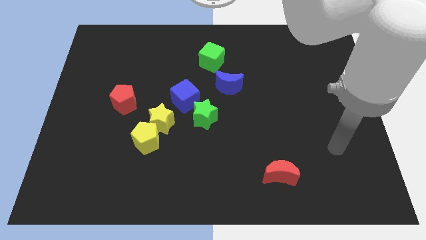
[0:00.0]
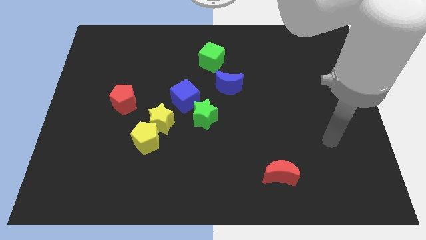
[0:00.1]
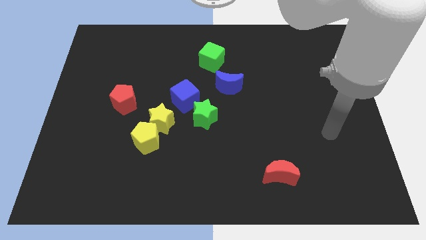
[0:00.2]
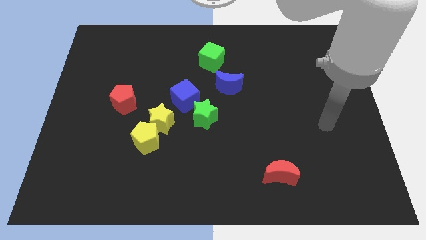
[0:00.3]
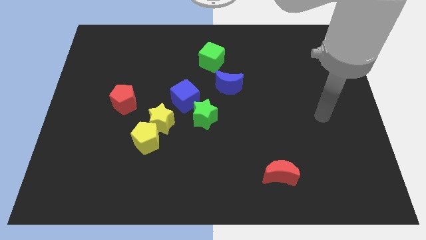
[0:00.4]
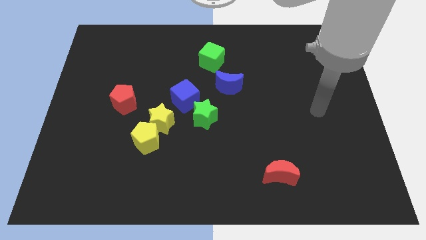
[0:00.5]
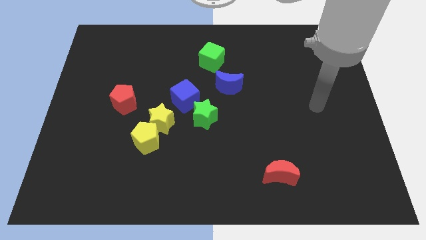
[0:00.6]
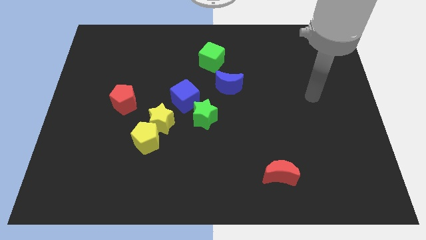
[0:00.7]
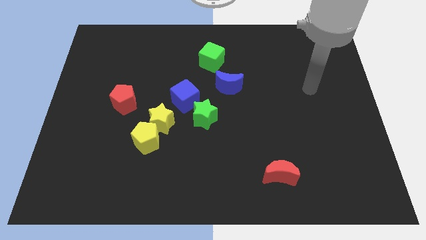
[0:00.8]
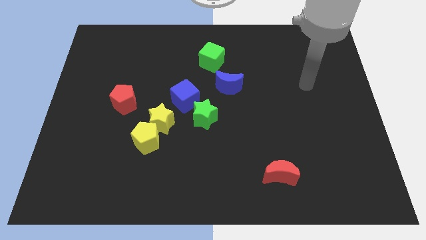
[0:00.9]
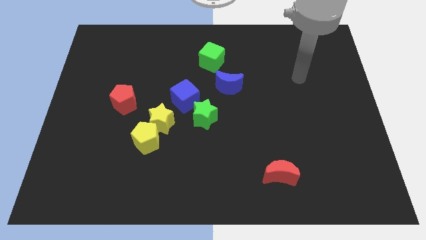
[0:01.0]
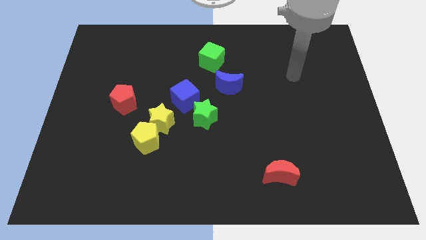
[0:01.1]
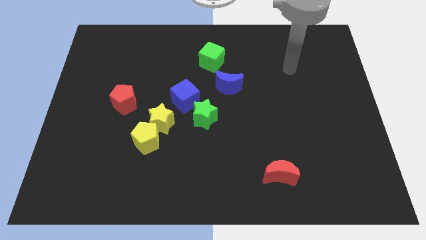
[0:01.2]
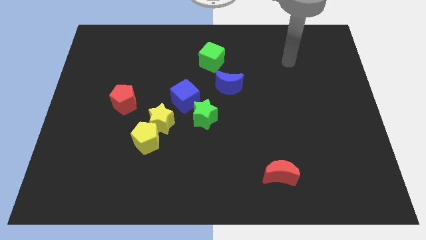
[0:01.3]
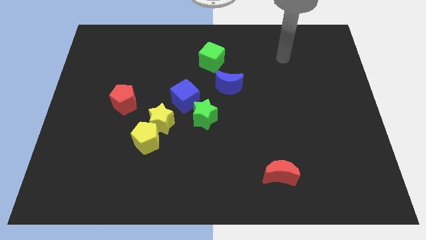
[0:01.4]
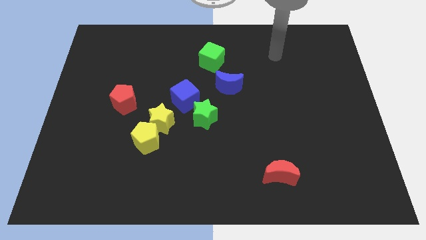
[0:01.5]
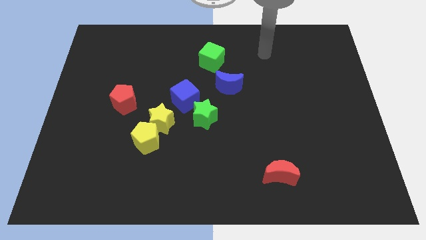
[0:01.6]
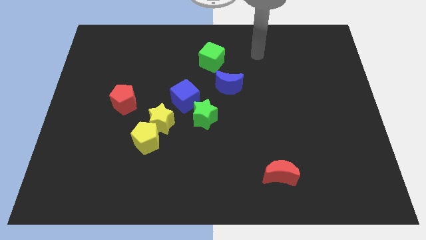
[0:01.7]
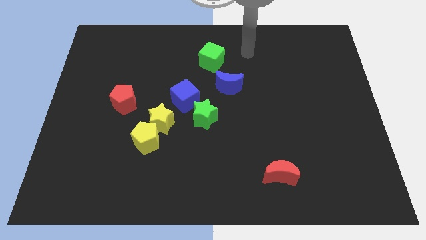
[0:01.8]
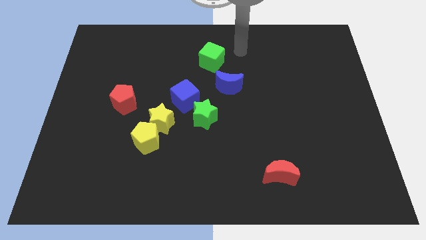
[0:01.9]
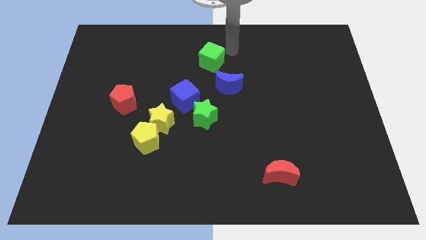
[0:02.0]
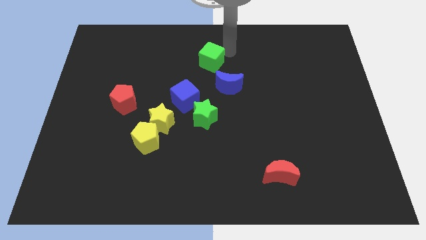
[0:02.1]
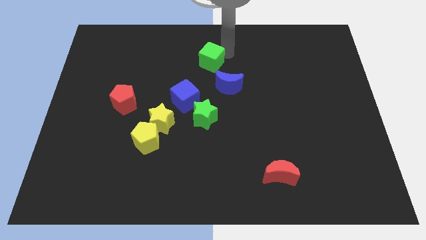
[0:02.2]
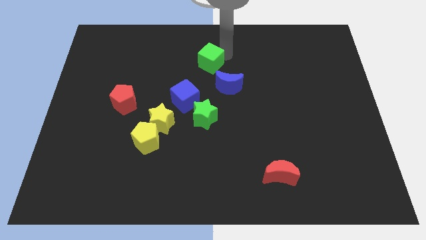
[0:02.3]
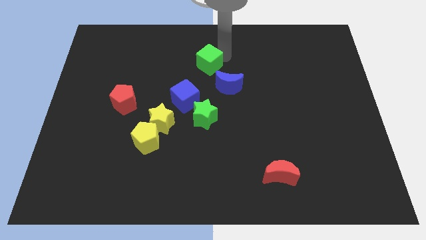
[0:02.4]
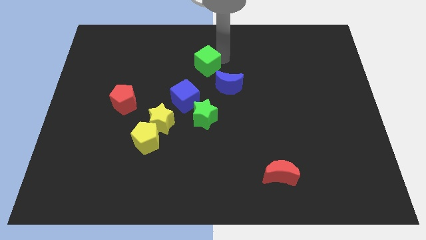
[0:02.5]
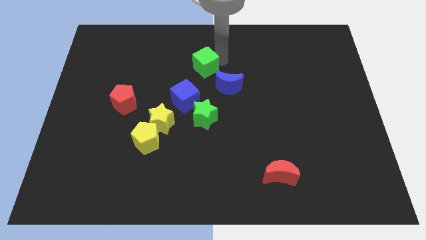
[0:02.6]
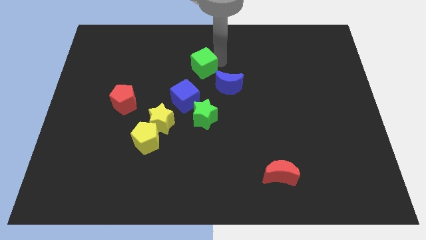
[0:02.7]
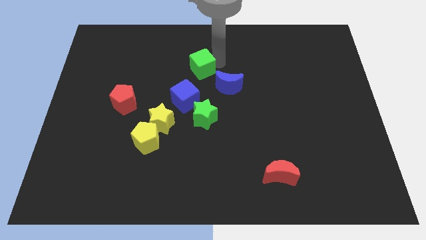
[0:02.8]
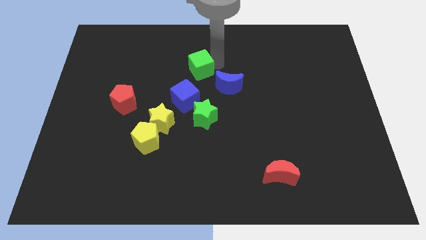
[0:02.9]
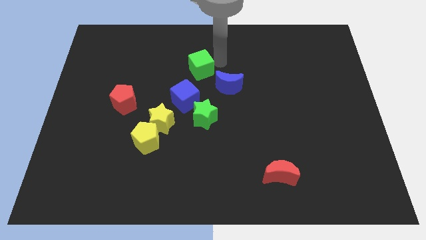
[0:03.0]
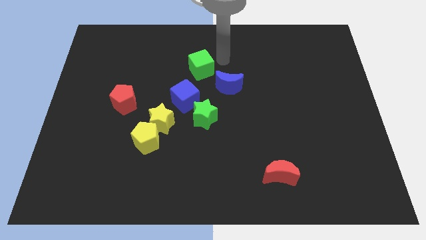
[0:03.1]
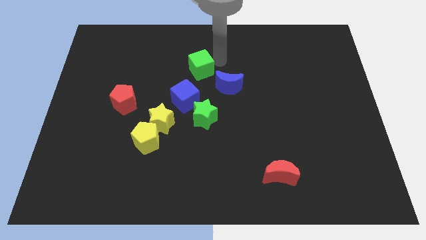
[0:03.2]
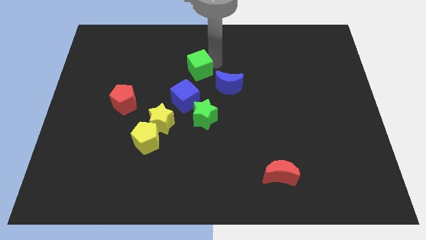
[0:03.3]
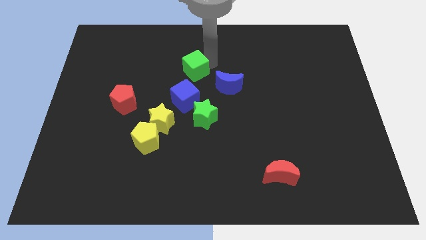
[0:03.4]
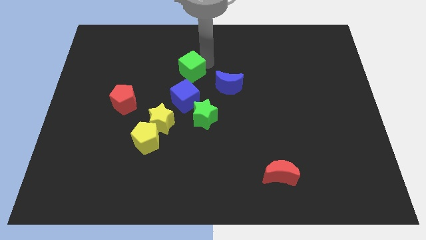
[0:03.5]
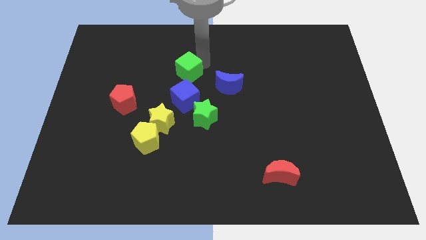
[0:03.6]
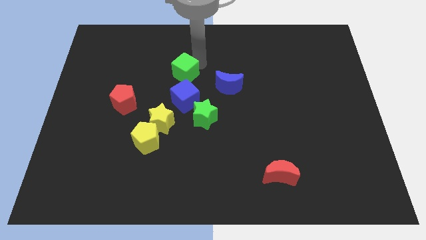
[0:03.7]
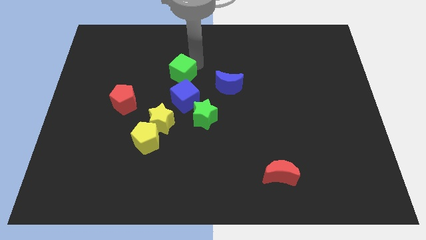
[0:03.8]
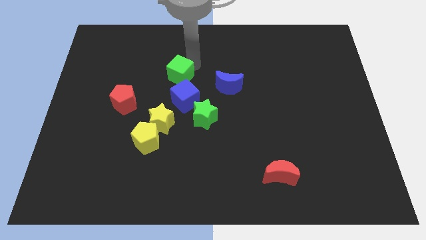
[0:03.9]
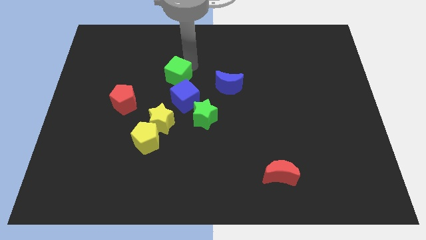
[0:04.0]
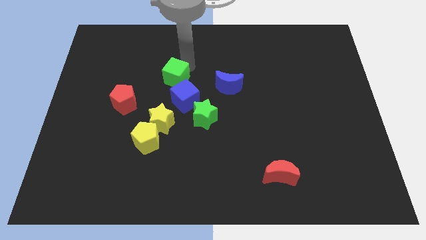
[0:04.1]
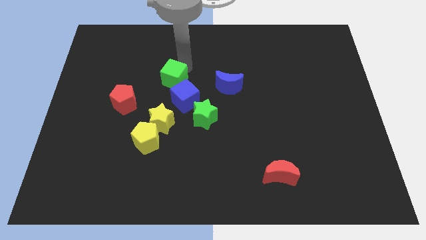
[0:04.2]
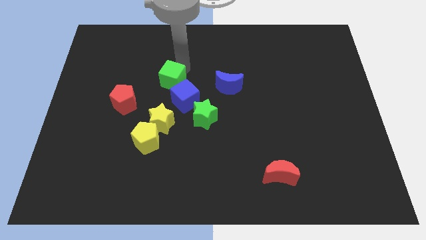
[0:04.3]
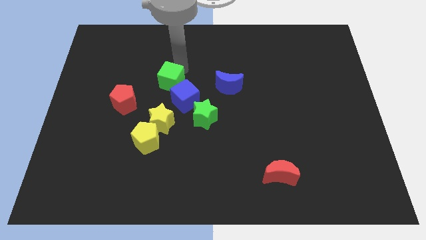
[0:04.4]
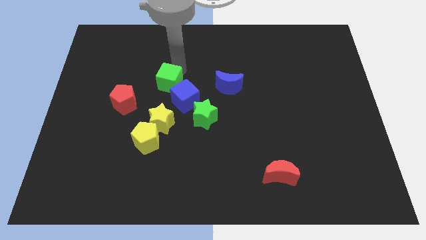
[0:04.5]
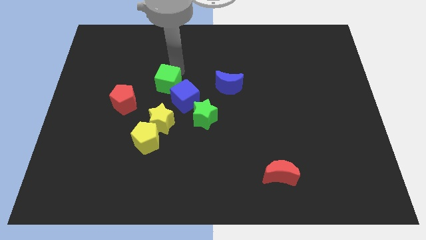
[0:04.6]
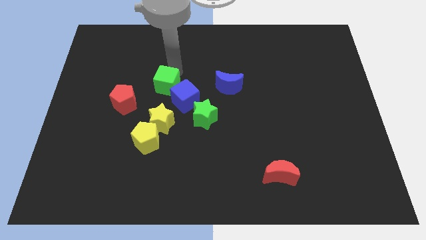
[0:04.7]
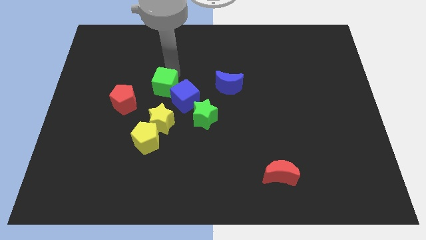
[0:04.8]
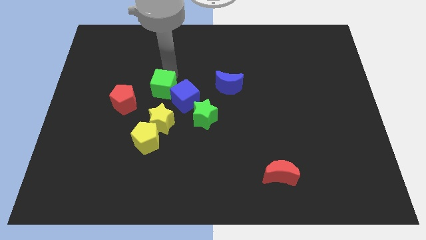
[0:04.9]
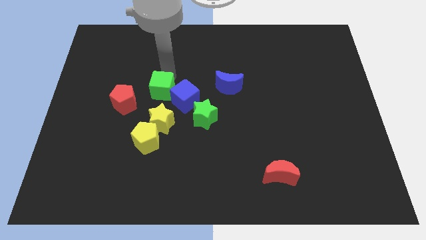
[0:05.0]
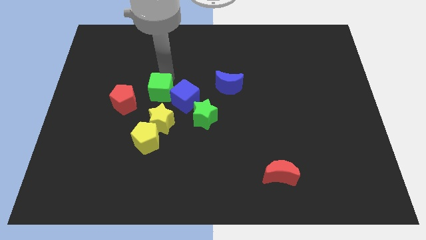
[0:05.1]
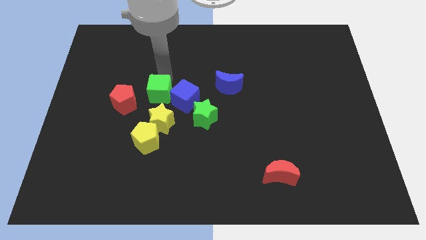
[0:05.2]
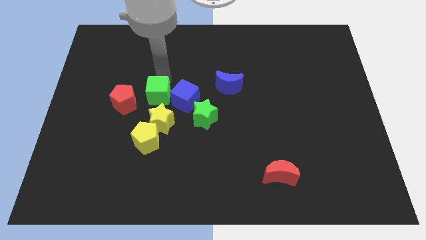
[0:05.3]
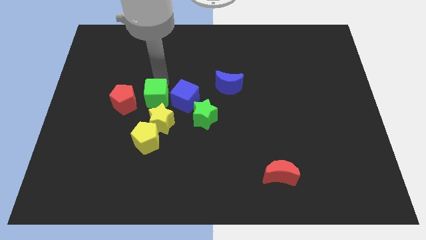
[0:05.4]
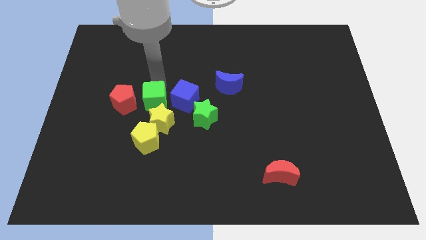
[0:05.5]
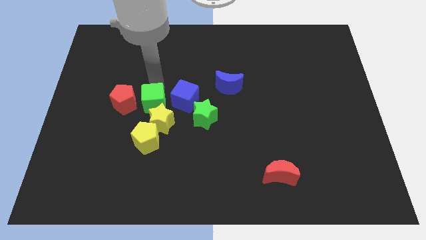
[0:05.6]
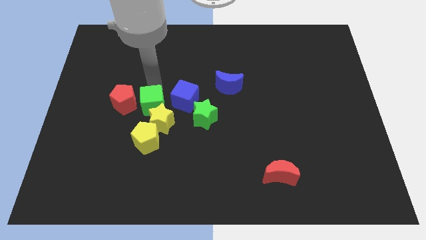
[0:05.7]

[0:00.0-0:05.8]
slide the green cube towards the yellow star
